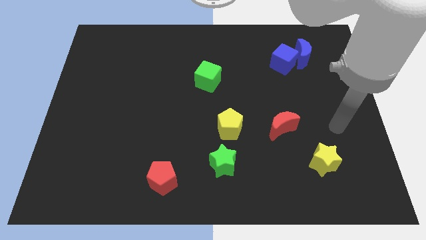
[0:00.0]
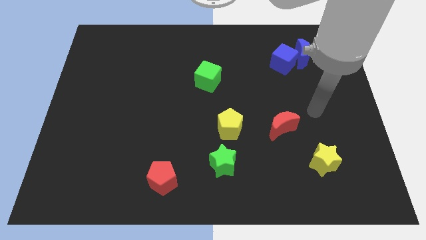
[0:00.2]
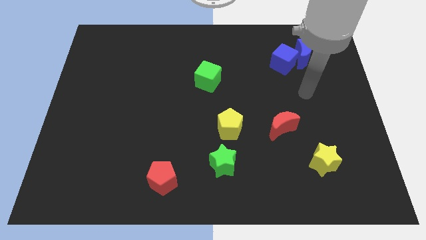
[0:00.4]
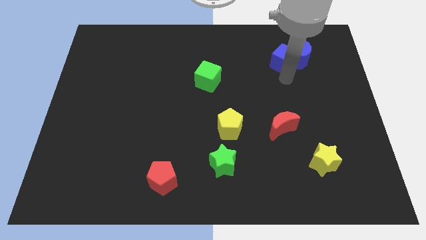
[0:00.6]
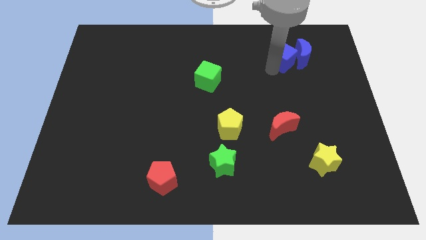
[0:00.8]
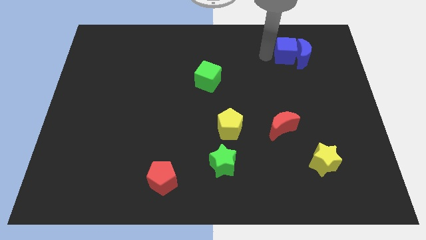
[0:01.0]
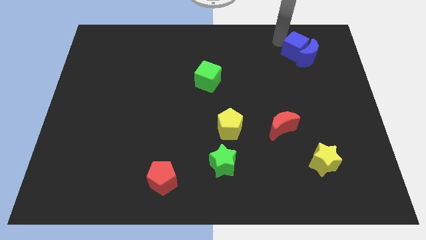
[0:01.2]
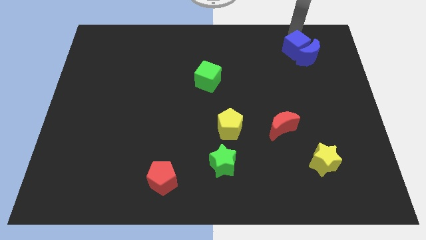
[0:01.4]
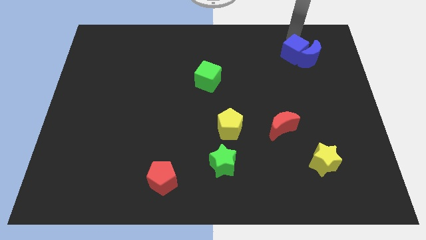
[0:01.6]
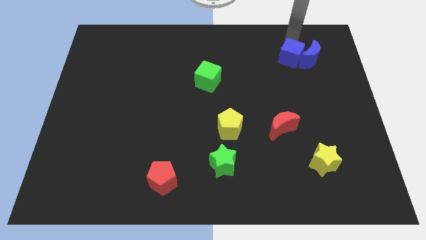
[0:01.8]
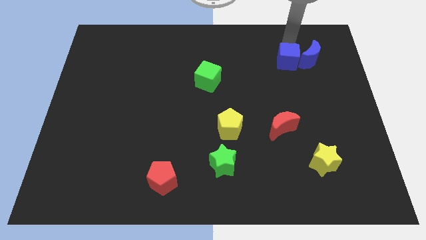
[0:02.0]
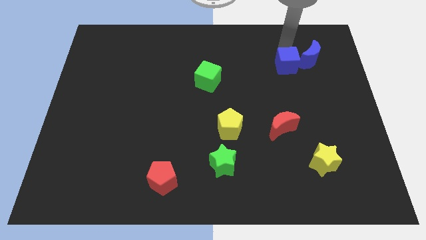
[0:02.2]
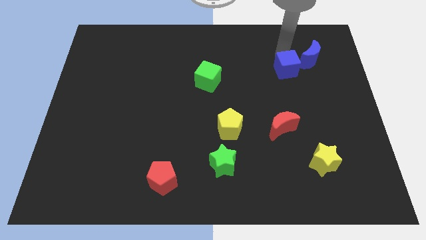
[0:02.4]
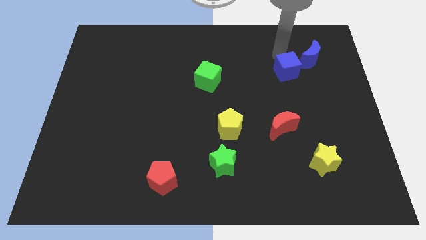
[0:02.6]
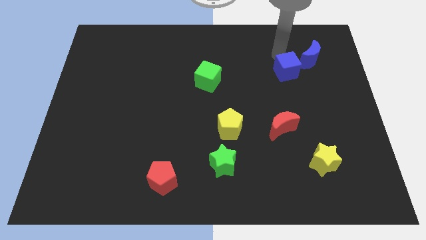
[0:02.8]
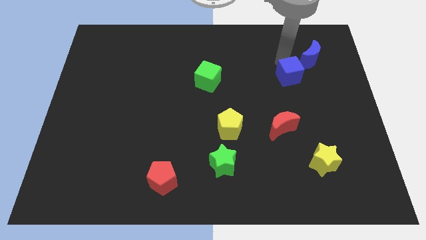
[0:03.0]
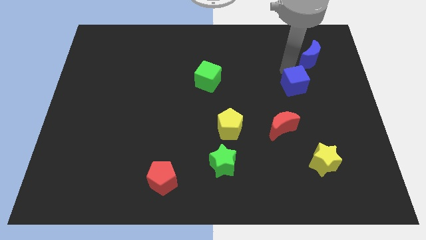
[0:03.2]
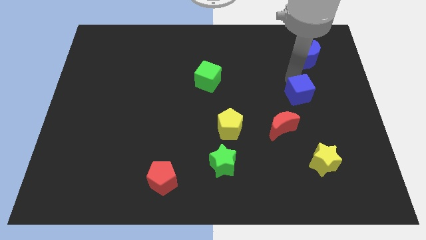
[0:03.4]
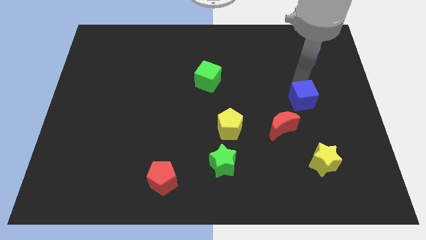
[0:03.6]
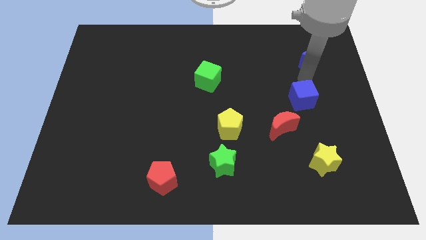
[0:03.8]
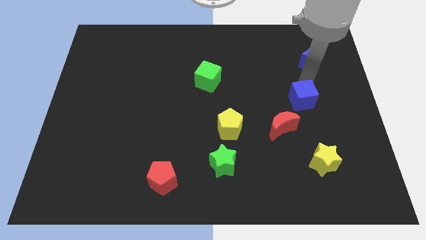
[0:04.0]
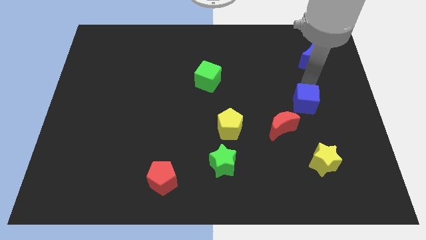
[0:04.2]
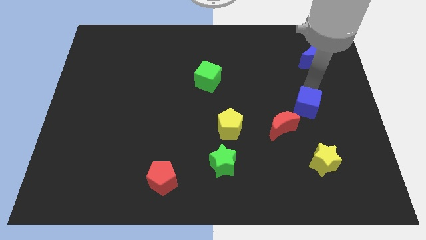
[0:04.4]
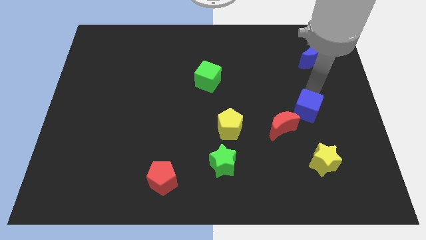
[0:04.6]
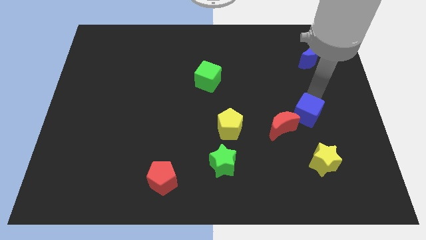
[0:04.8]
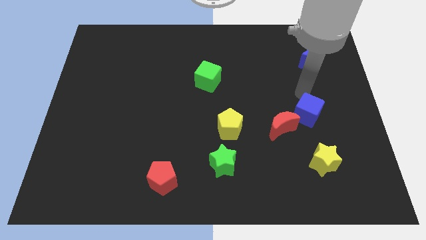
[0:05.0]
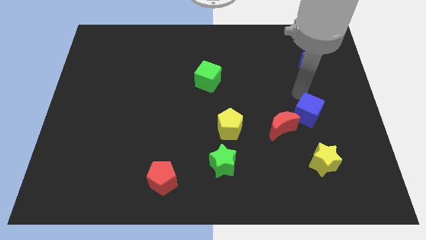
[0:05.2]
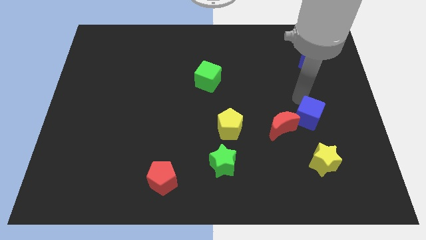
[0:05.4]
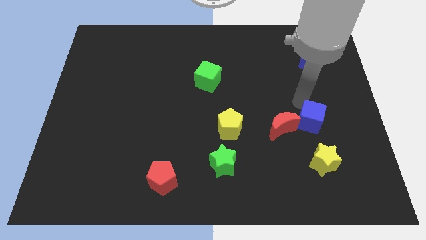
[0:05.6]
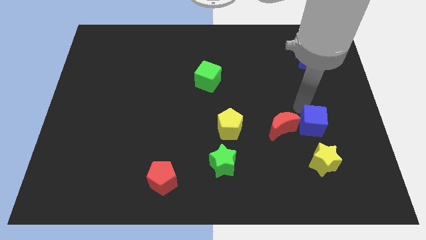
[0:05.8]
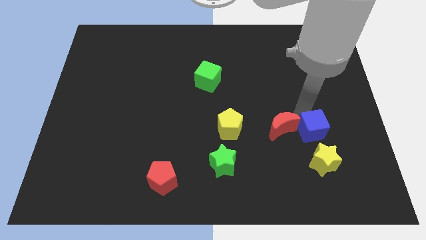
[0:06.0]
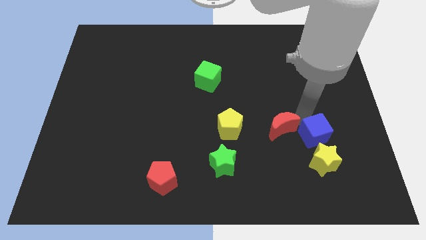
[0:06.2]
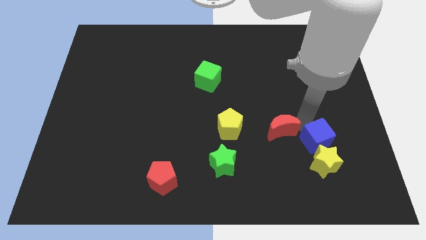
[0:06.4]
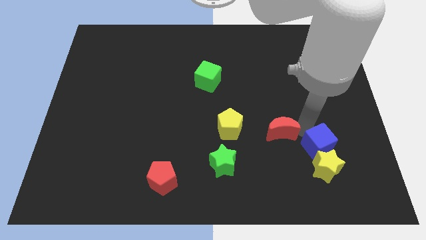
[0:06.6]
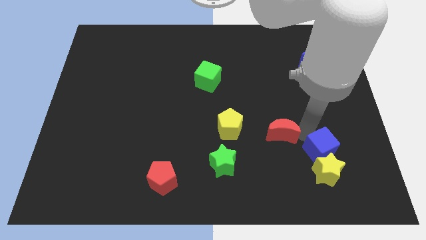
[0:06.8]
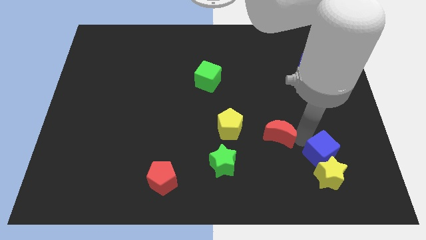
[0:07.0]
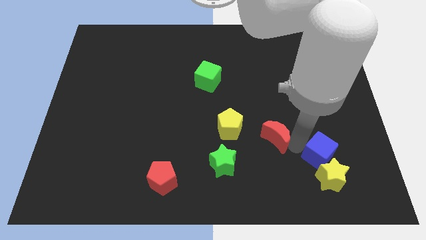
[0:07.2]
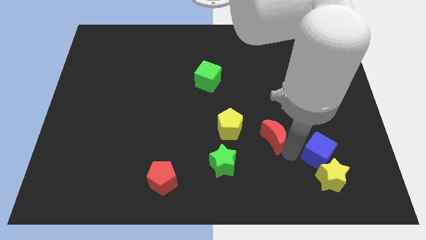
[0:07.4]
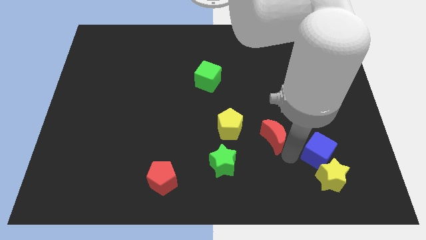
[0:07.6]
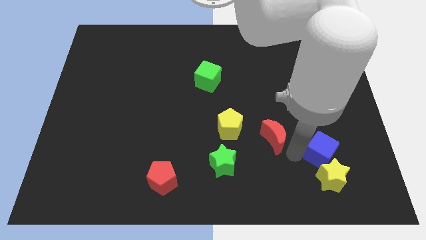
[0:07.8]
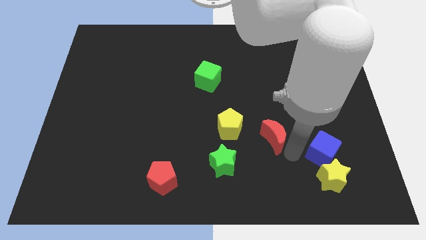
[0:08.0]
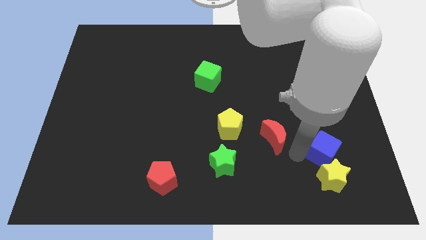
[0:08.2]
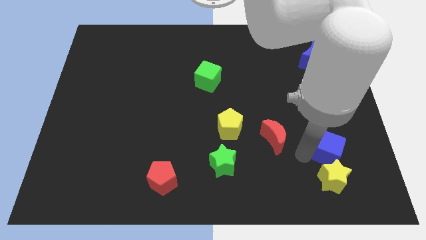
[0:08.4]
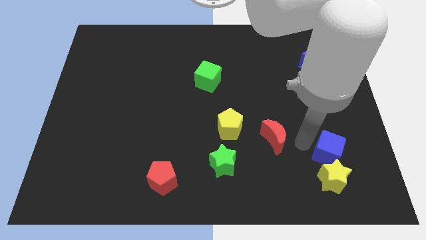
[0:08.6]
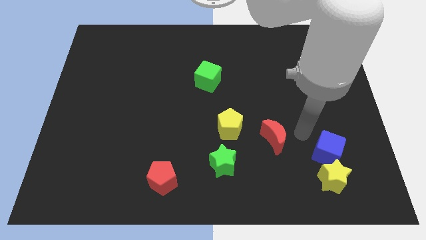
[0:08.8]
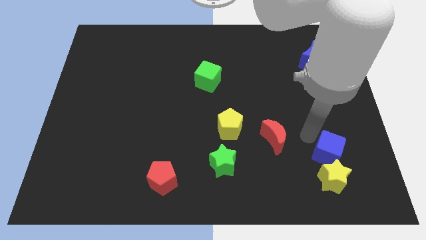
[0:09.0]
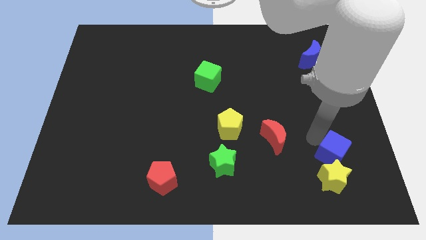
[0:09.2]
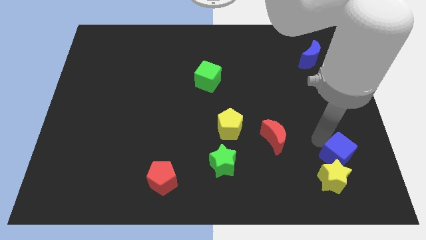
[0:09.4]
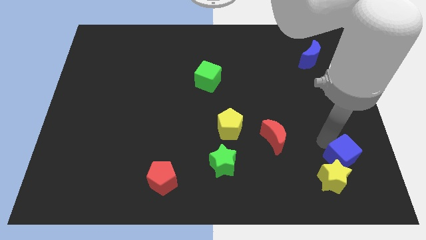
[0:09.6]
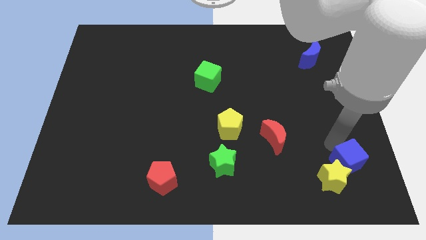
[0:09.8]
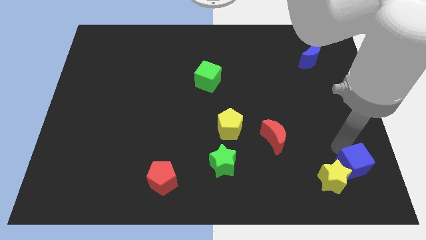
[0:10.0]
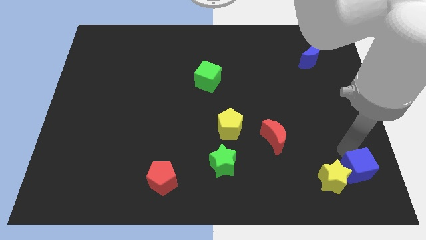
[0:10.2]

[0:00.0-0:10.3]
slide the blue cube to the bottom right of the board

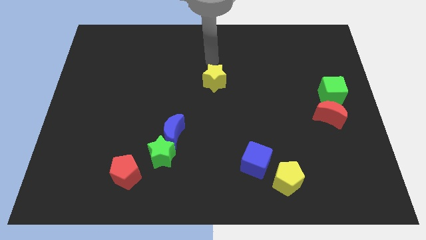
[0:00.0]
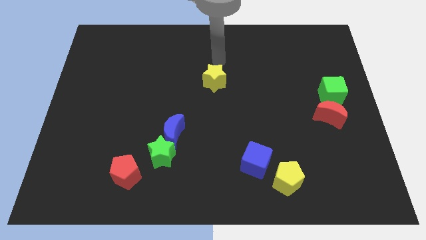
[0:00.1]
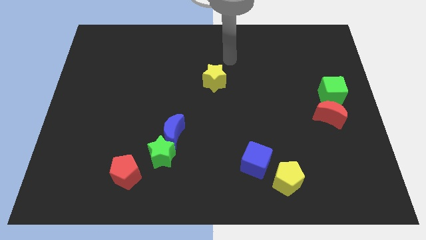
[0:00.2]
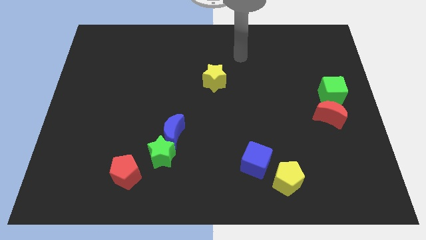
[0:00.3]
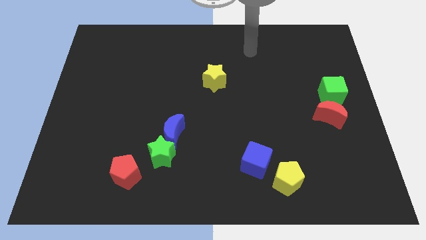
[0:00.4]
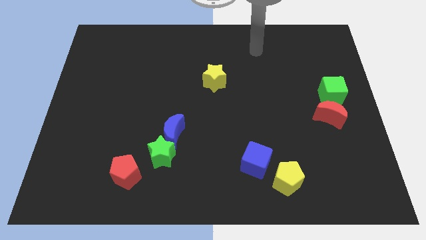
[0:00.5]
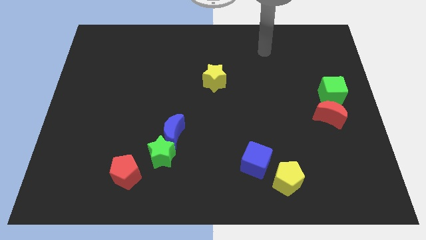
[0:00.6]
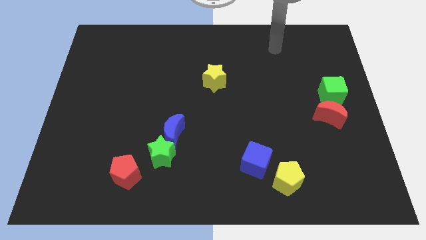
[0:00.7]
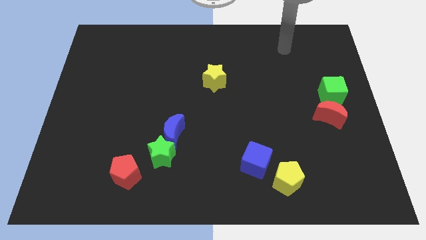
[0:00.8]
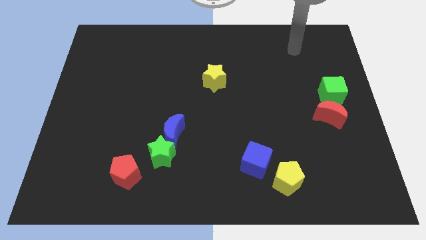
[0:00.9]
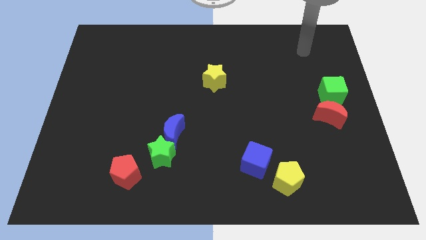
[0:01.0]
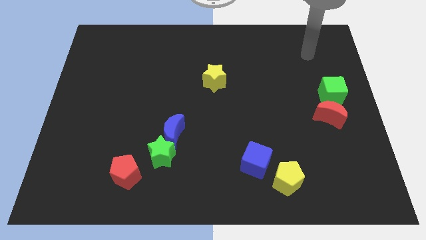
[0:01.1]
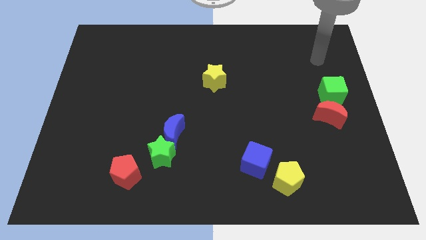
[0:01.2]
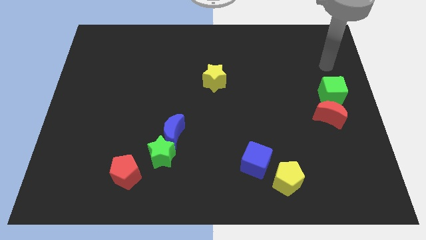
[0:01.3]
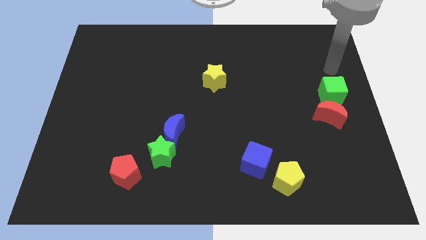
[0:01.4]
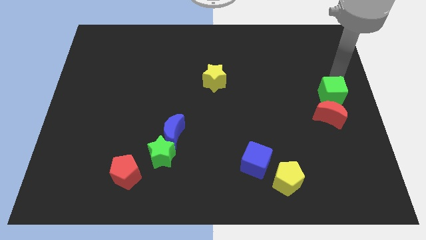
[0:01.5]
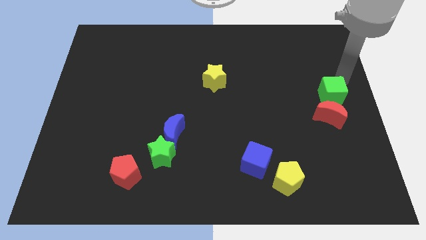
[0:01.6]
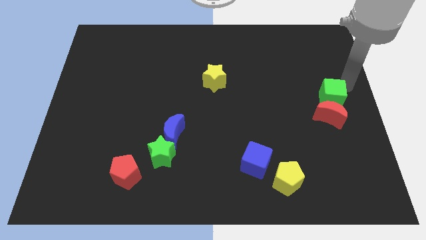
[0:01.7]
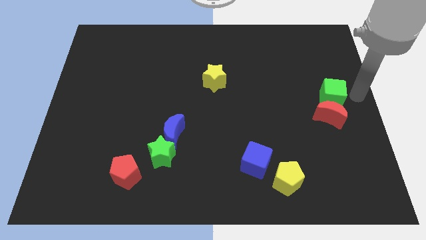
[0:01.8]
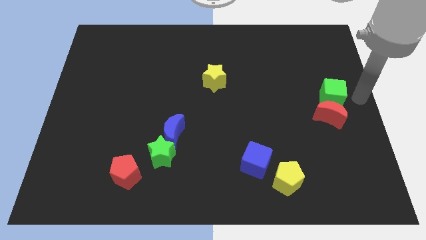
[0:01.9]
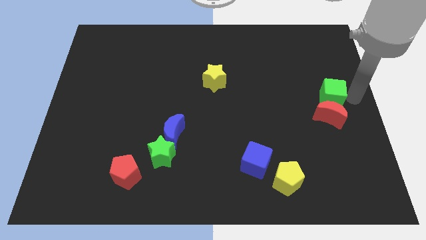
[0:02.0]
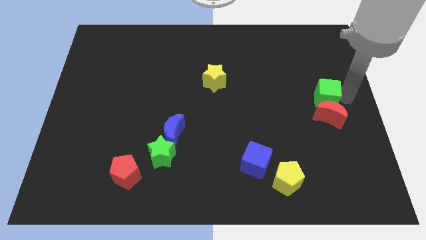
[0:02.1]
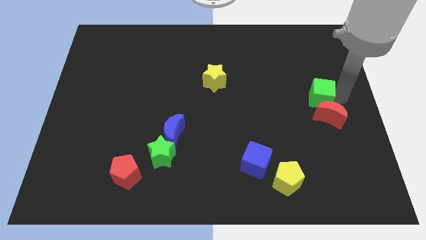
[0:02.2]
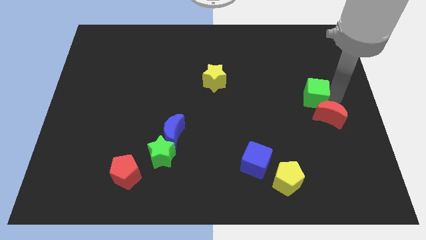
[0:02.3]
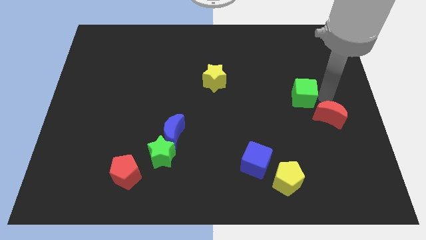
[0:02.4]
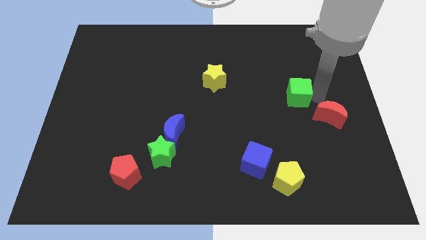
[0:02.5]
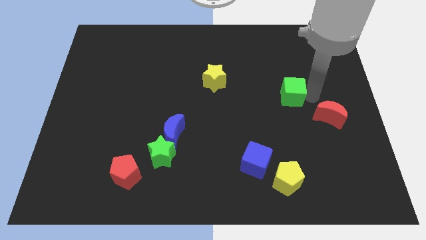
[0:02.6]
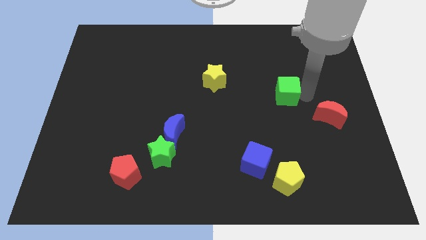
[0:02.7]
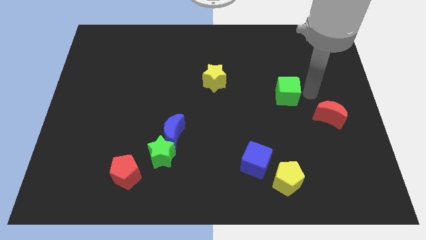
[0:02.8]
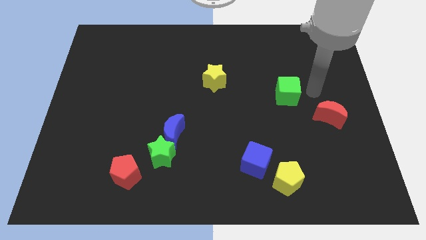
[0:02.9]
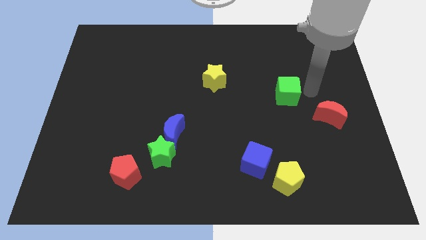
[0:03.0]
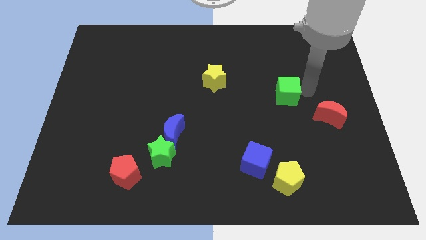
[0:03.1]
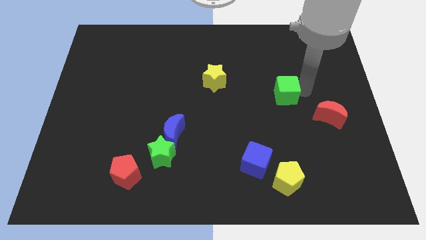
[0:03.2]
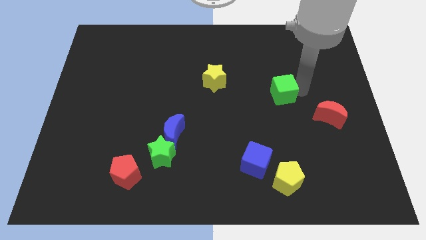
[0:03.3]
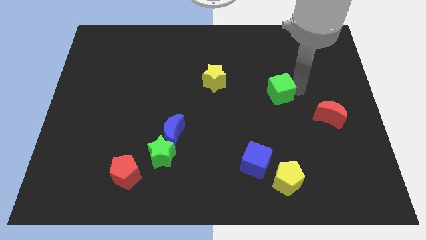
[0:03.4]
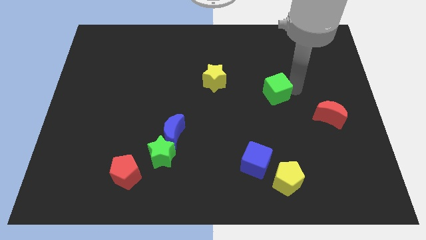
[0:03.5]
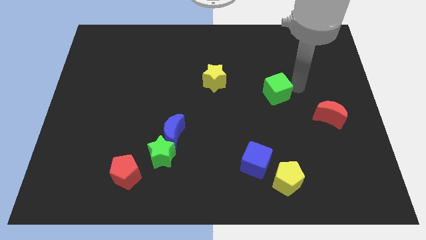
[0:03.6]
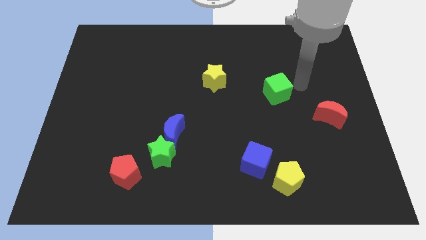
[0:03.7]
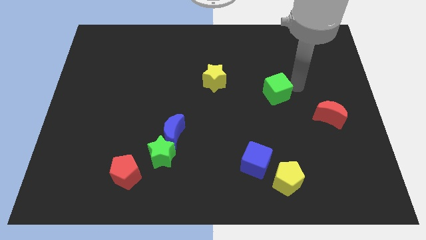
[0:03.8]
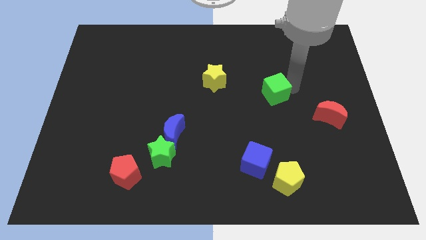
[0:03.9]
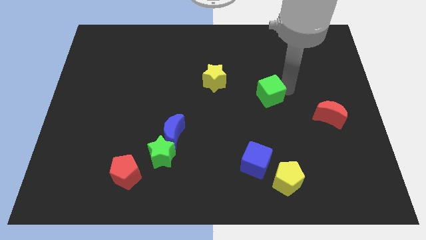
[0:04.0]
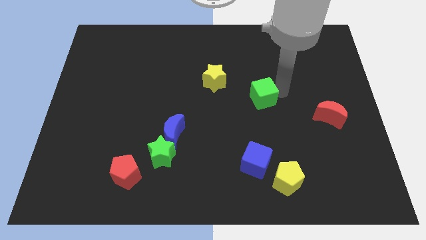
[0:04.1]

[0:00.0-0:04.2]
slide the green cube to the middle of the board
